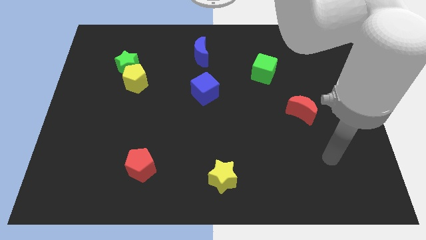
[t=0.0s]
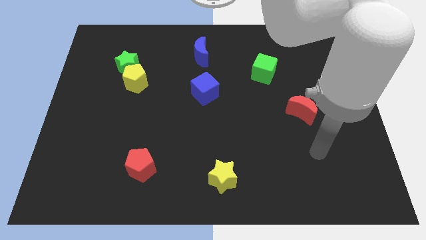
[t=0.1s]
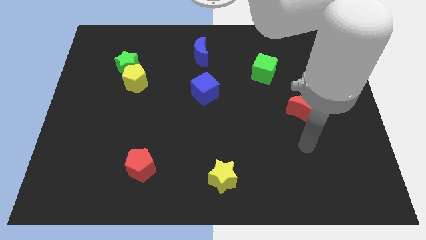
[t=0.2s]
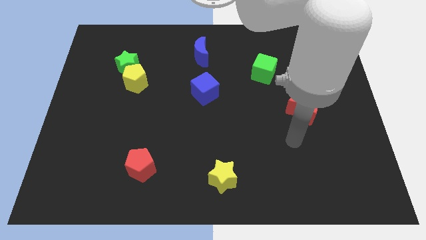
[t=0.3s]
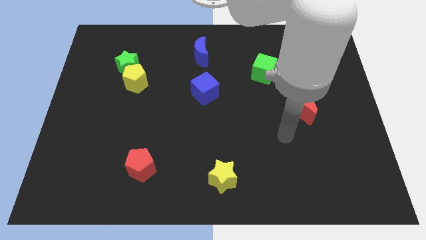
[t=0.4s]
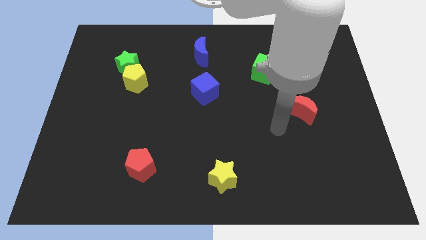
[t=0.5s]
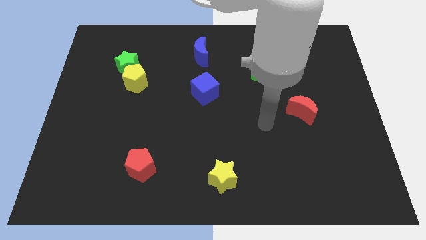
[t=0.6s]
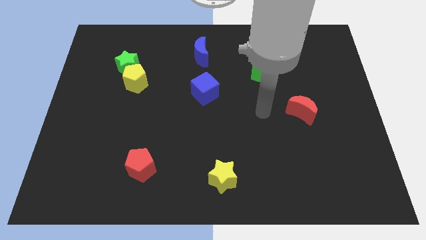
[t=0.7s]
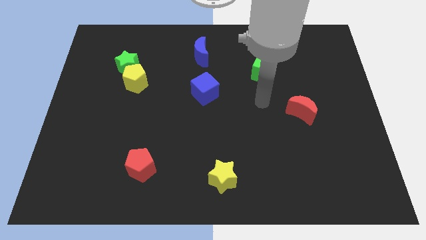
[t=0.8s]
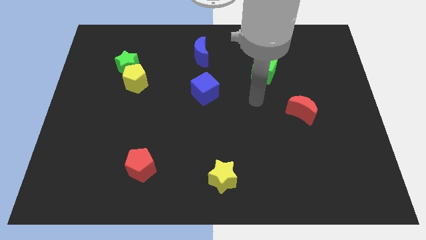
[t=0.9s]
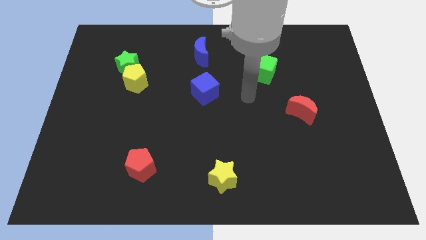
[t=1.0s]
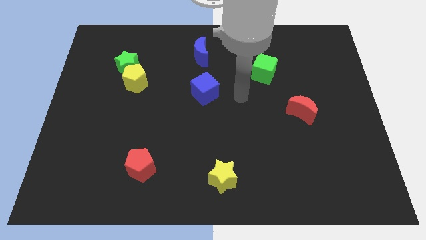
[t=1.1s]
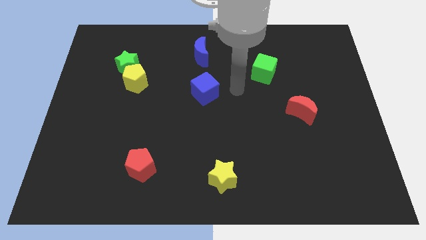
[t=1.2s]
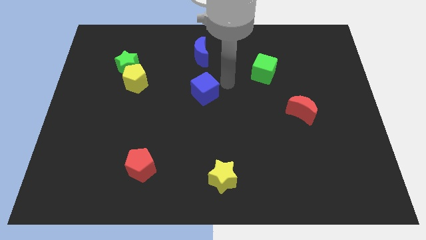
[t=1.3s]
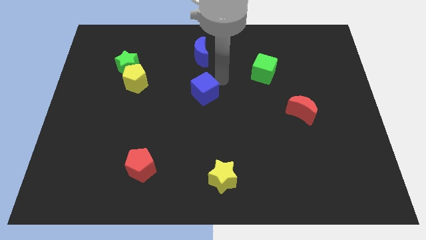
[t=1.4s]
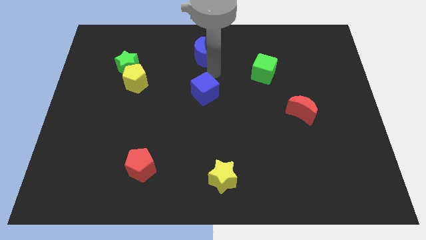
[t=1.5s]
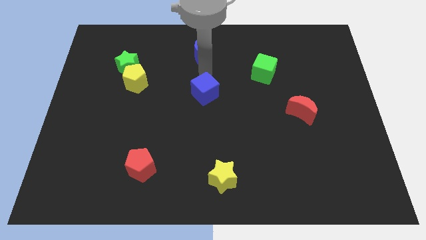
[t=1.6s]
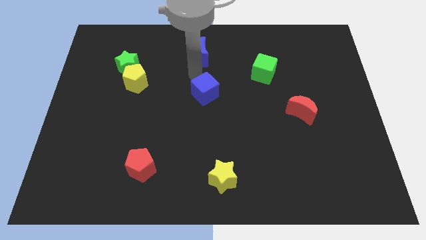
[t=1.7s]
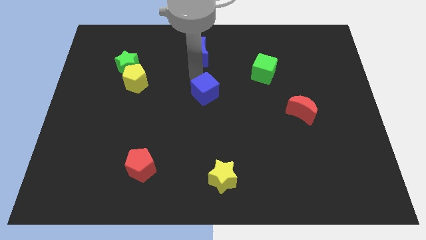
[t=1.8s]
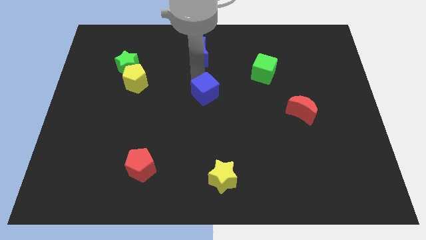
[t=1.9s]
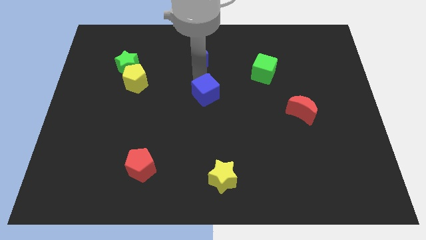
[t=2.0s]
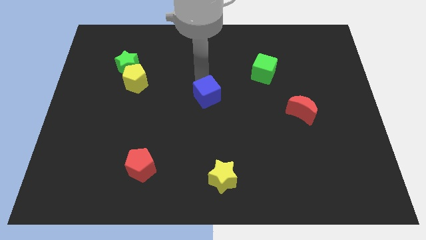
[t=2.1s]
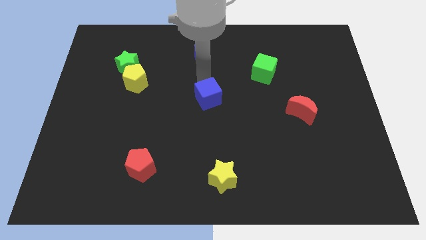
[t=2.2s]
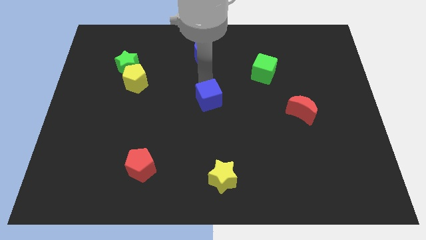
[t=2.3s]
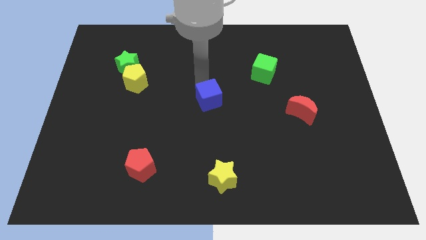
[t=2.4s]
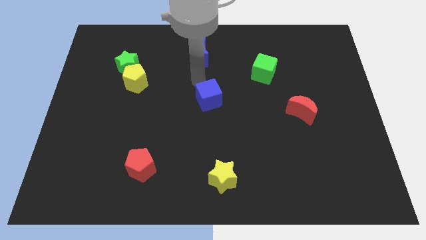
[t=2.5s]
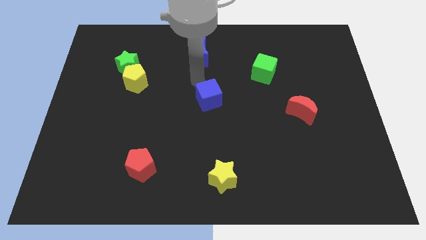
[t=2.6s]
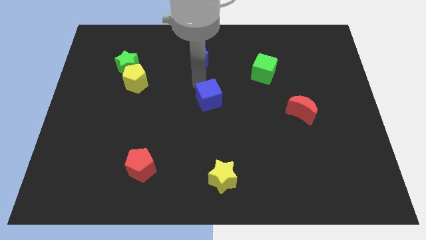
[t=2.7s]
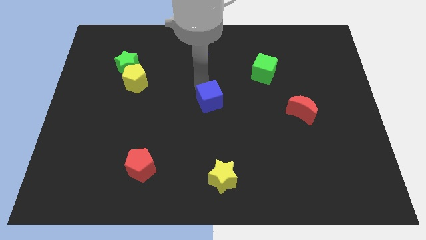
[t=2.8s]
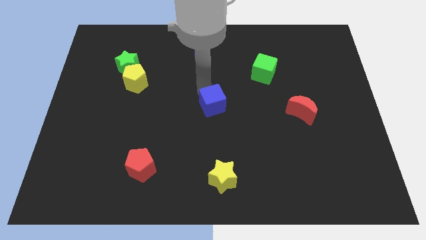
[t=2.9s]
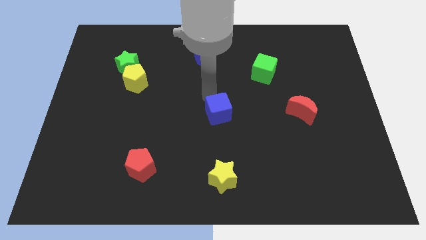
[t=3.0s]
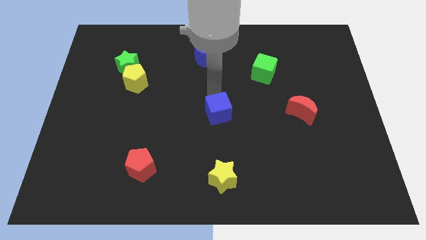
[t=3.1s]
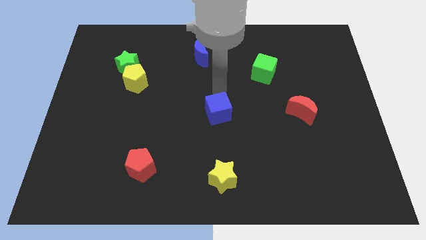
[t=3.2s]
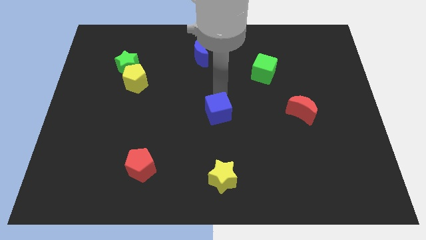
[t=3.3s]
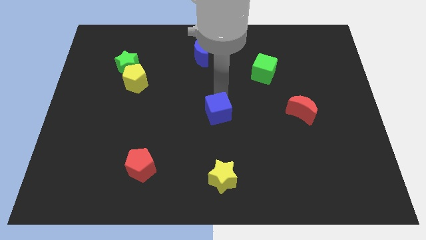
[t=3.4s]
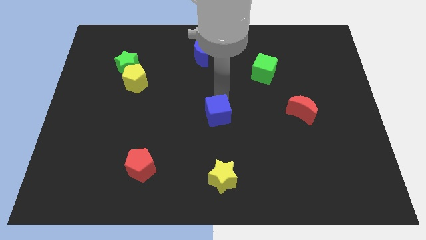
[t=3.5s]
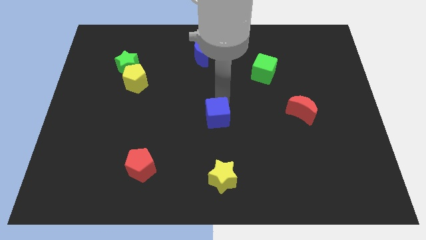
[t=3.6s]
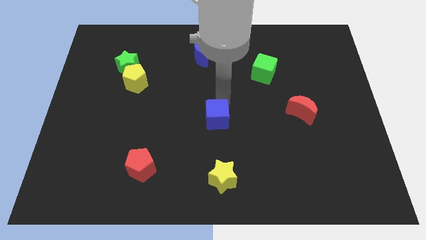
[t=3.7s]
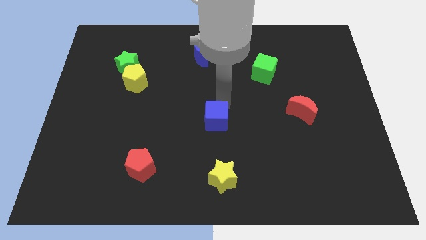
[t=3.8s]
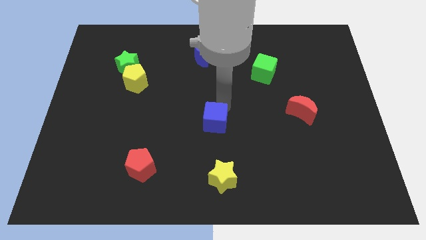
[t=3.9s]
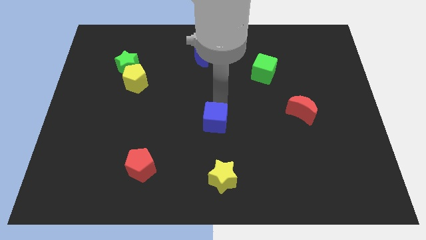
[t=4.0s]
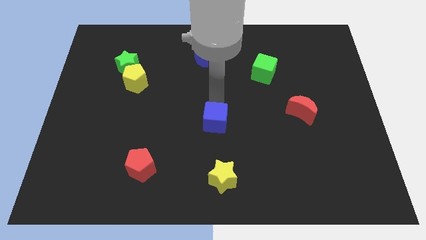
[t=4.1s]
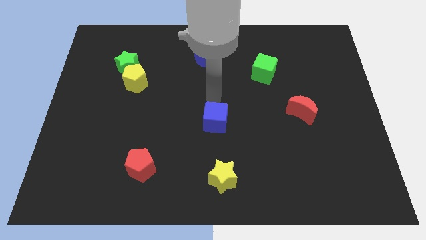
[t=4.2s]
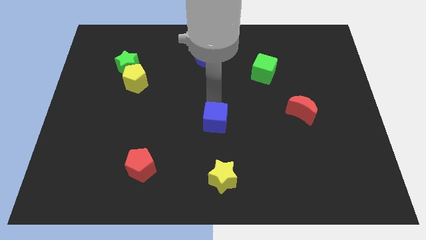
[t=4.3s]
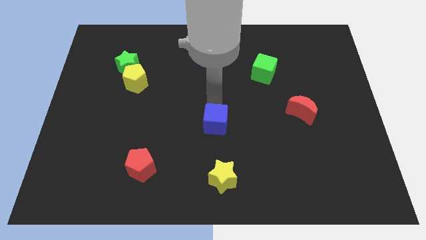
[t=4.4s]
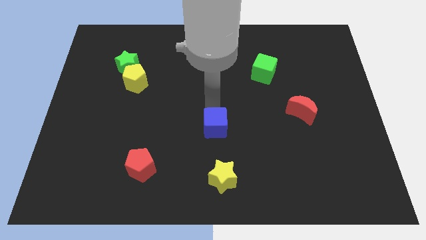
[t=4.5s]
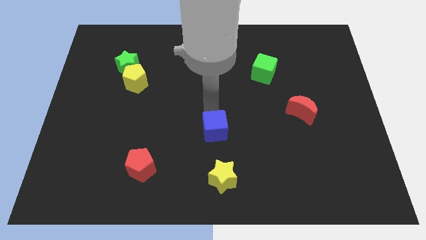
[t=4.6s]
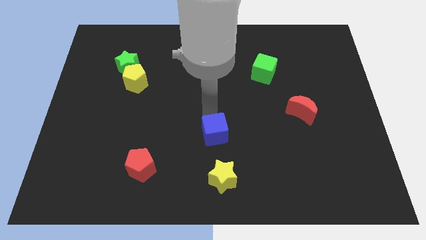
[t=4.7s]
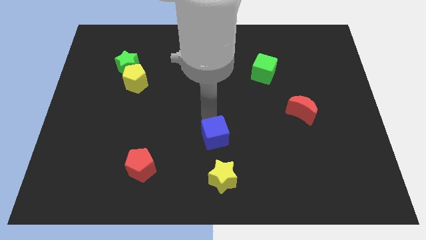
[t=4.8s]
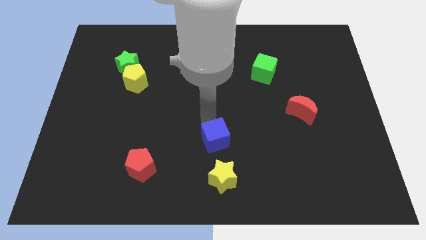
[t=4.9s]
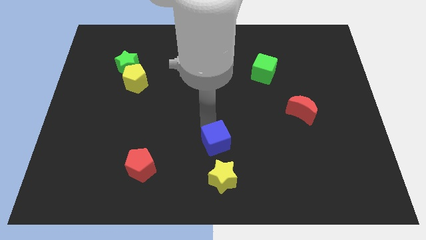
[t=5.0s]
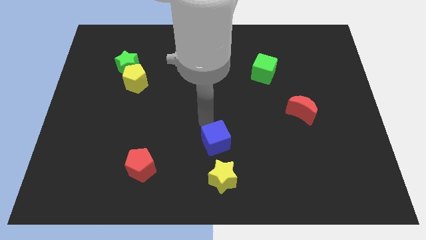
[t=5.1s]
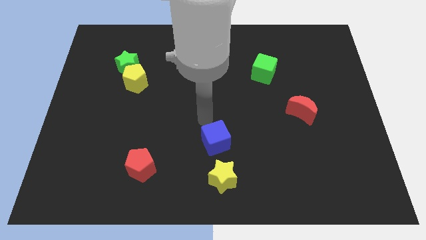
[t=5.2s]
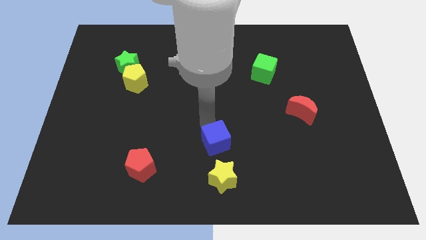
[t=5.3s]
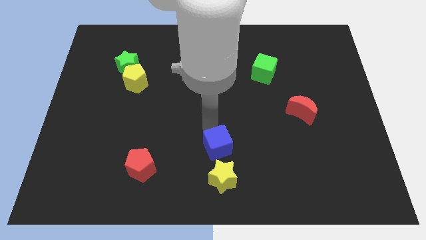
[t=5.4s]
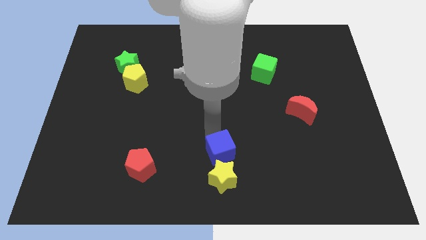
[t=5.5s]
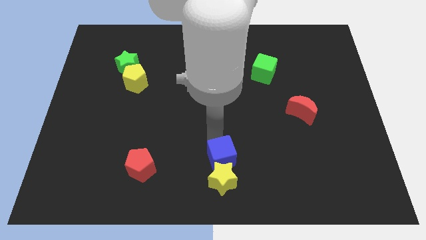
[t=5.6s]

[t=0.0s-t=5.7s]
push the blue cube next to the yellow star

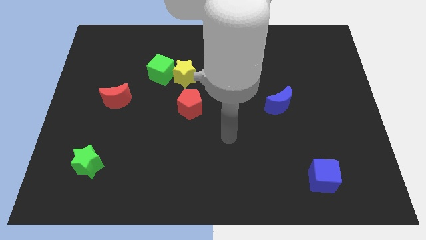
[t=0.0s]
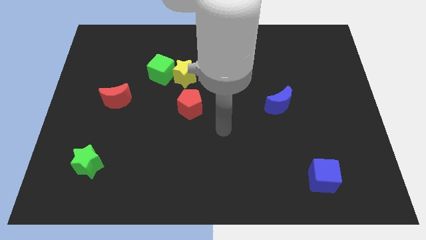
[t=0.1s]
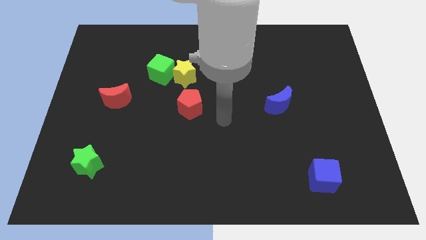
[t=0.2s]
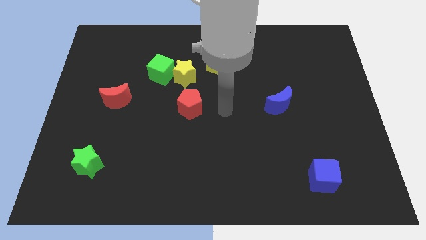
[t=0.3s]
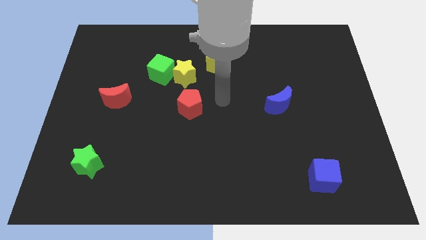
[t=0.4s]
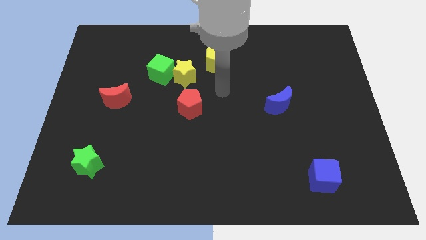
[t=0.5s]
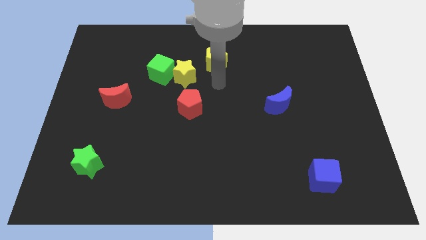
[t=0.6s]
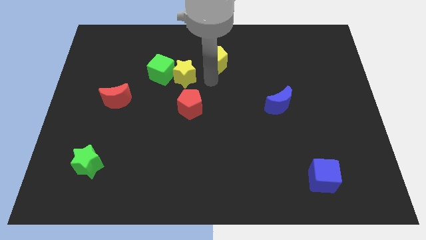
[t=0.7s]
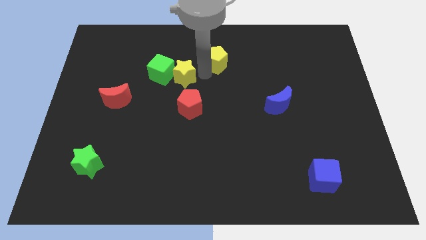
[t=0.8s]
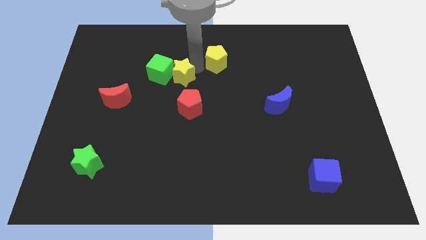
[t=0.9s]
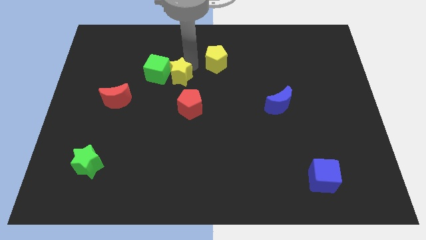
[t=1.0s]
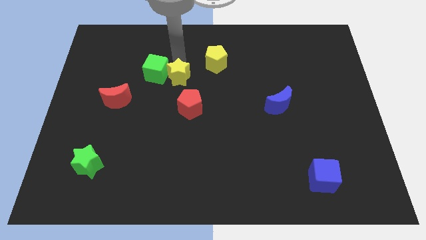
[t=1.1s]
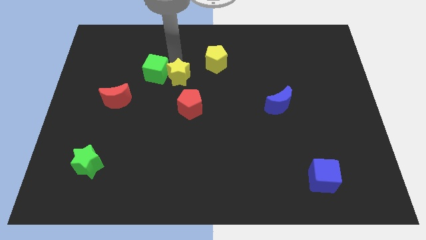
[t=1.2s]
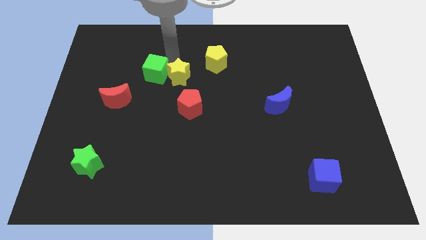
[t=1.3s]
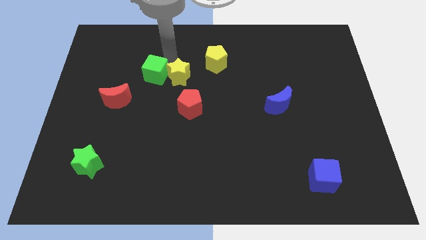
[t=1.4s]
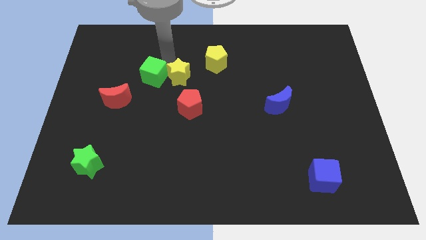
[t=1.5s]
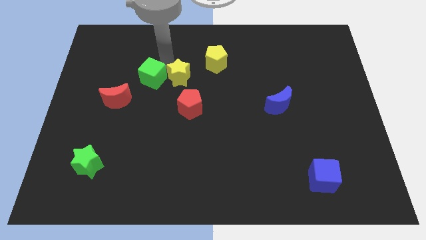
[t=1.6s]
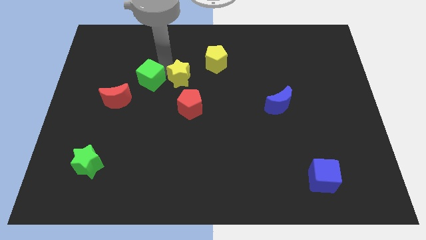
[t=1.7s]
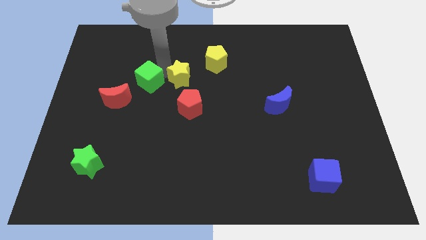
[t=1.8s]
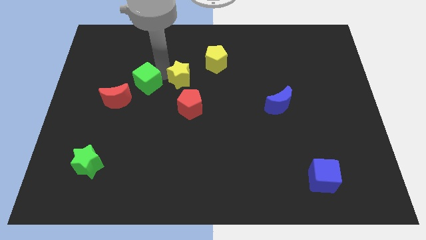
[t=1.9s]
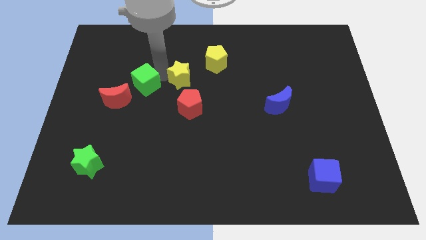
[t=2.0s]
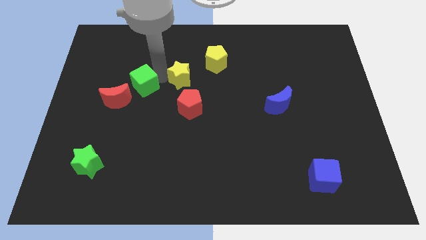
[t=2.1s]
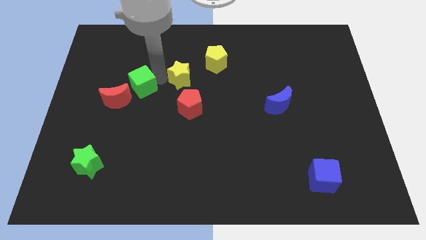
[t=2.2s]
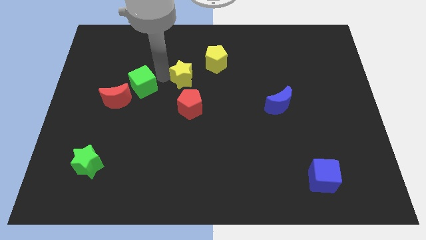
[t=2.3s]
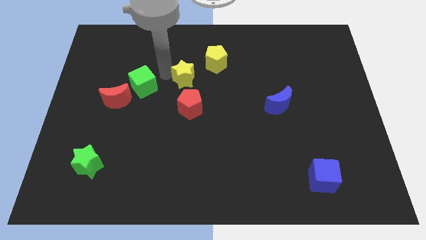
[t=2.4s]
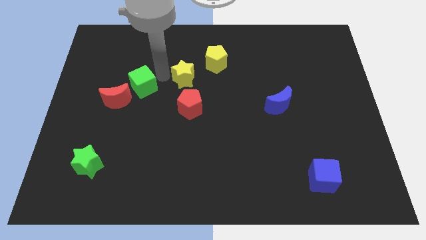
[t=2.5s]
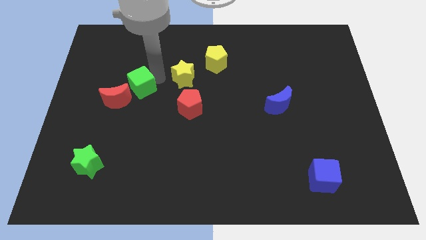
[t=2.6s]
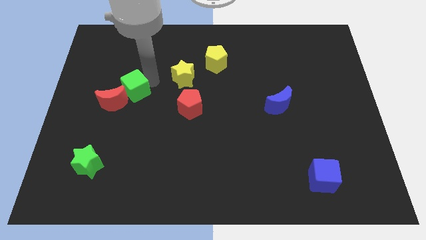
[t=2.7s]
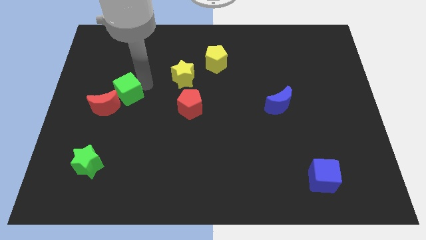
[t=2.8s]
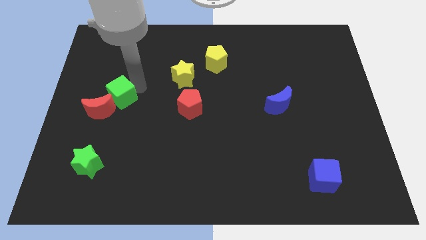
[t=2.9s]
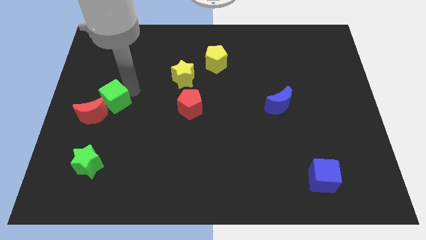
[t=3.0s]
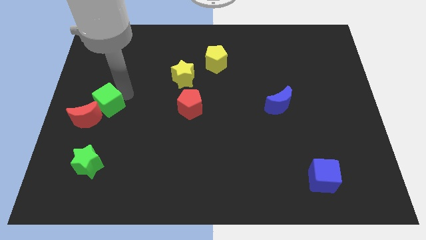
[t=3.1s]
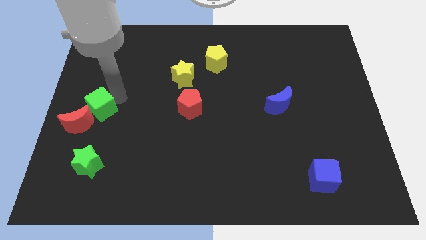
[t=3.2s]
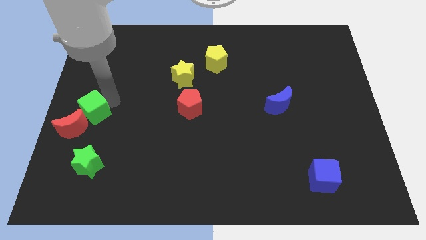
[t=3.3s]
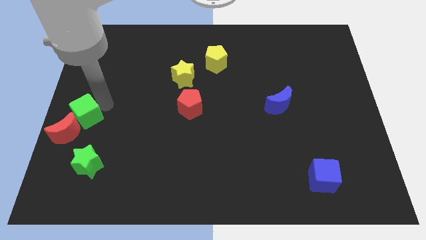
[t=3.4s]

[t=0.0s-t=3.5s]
slide the green cube next to the red moon
